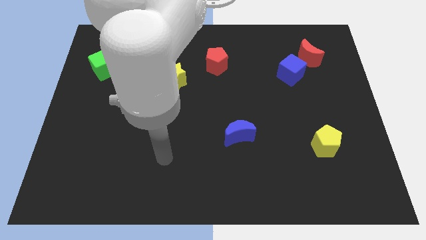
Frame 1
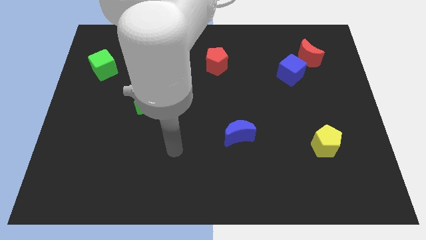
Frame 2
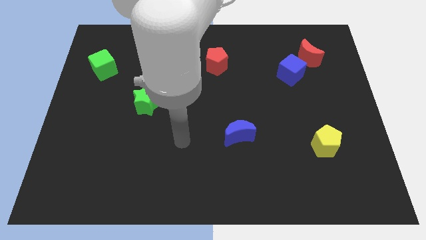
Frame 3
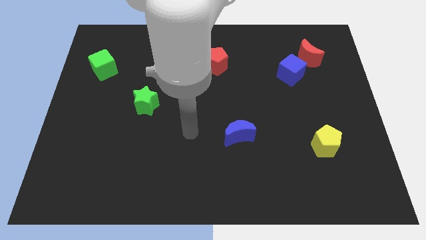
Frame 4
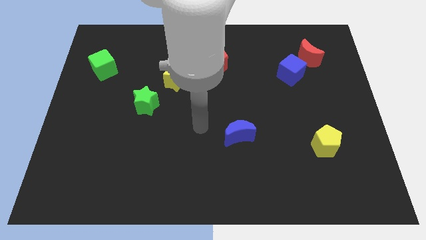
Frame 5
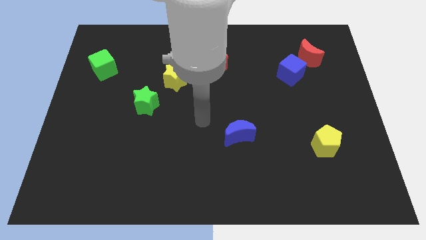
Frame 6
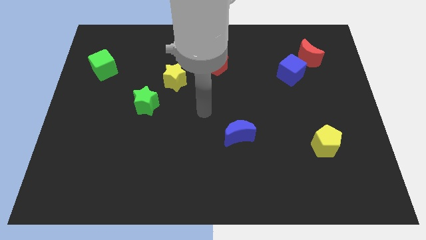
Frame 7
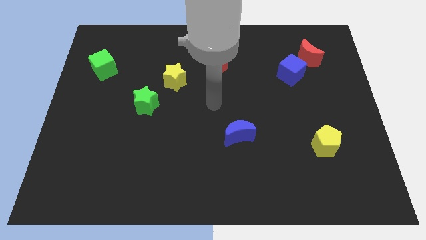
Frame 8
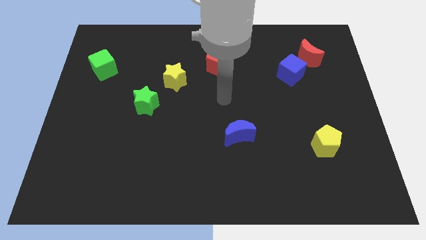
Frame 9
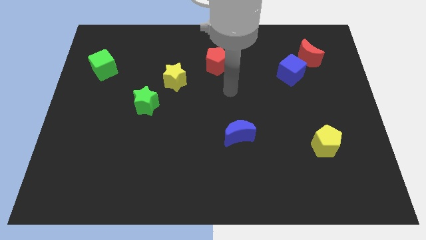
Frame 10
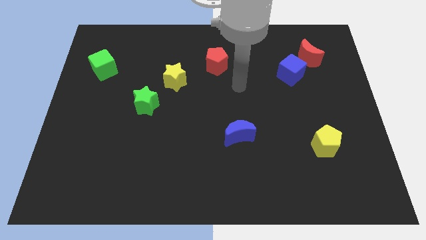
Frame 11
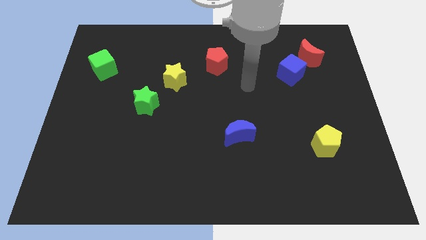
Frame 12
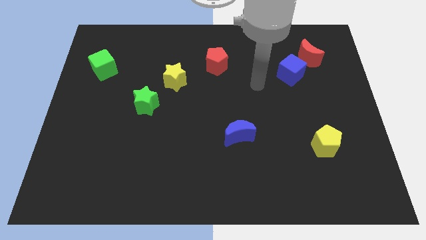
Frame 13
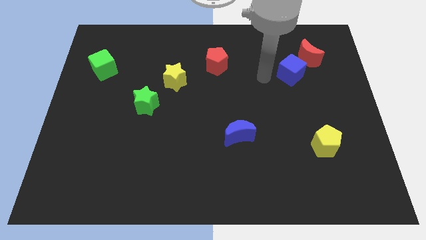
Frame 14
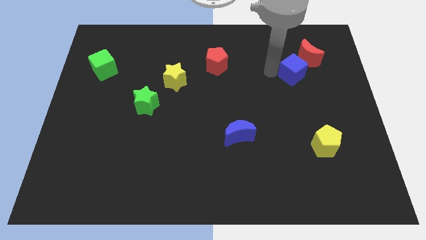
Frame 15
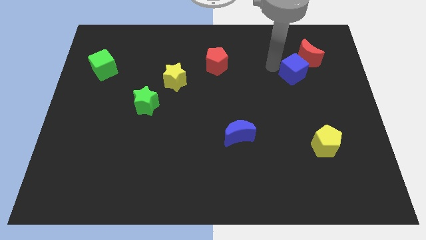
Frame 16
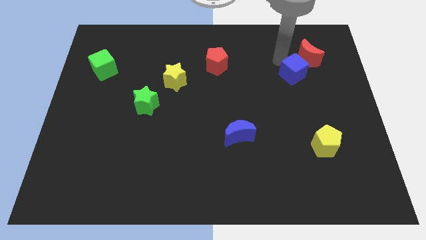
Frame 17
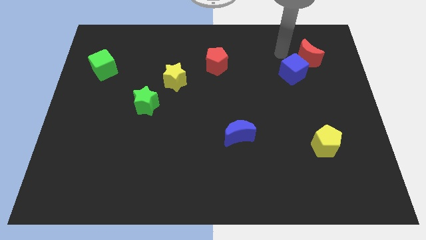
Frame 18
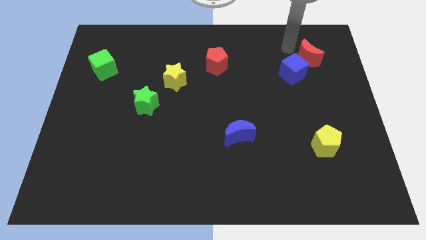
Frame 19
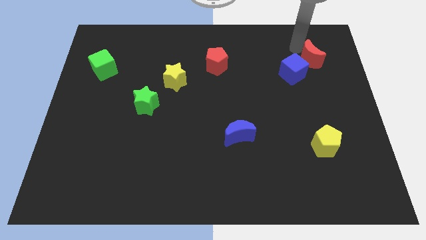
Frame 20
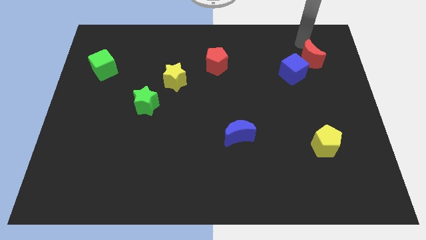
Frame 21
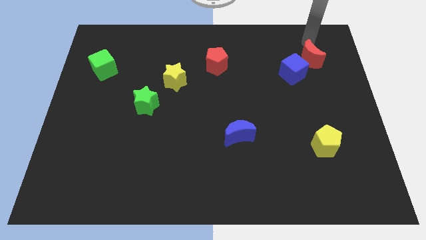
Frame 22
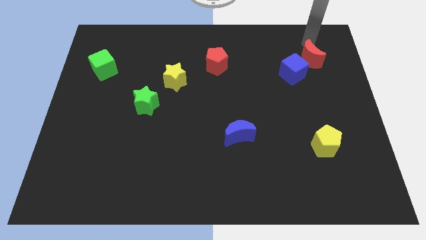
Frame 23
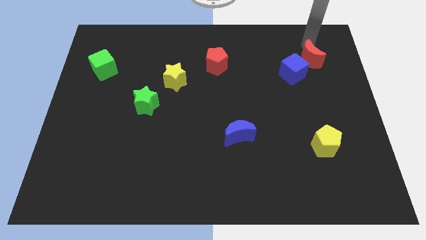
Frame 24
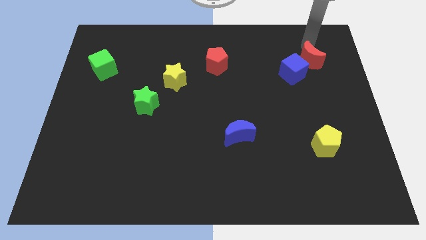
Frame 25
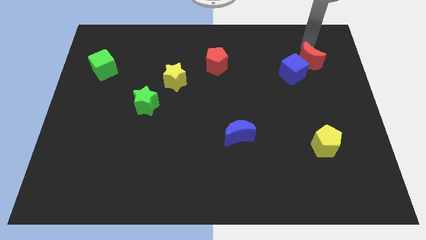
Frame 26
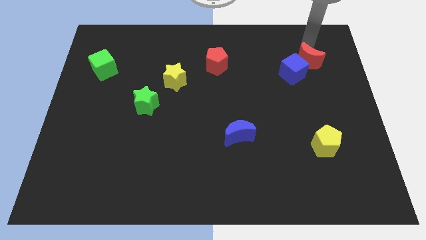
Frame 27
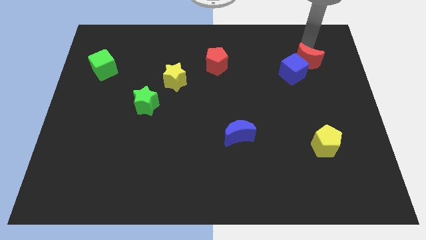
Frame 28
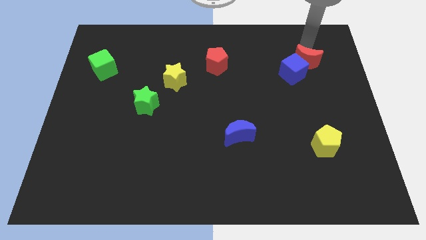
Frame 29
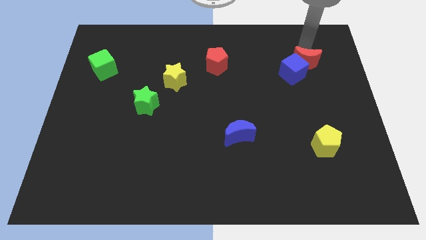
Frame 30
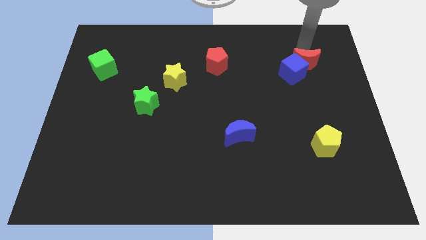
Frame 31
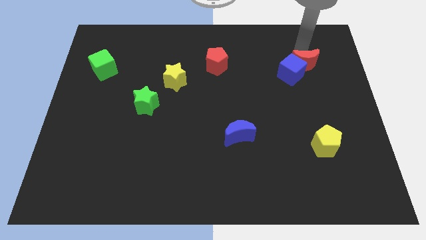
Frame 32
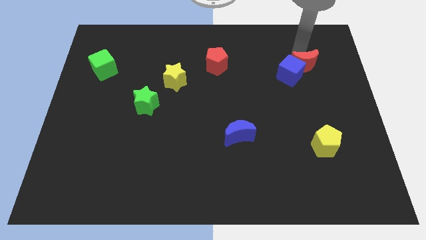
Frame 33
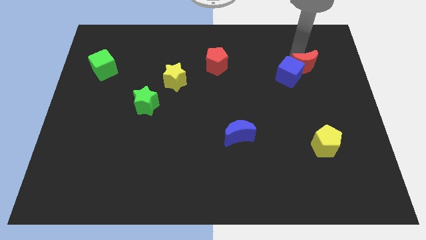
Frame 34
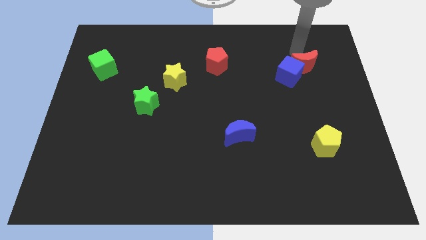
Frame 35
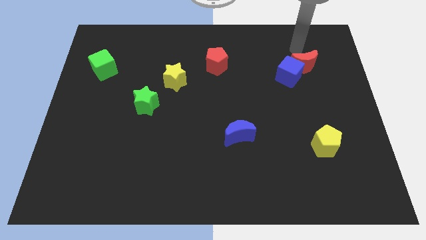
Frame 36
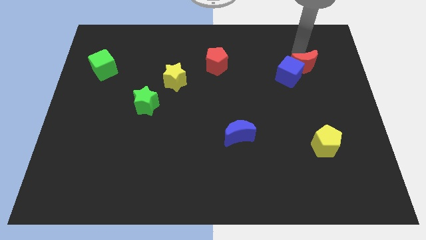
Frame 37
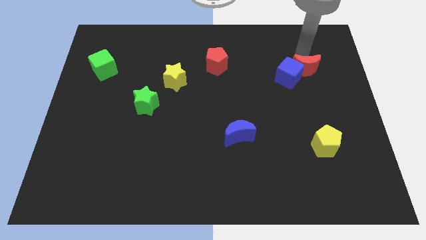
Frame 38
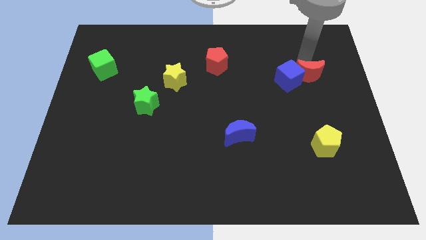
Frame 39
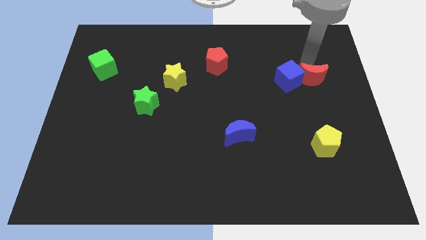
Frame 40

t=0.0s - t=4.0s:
slide the red moon down a little bit

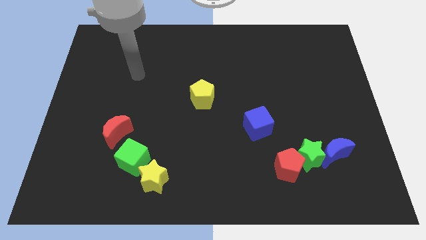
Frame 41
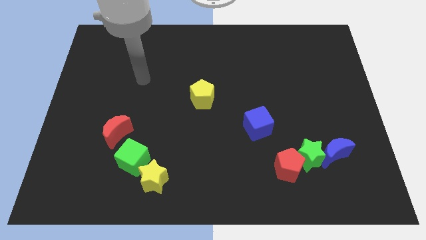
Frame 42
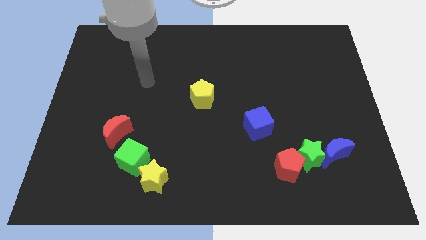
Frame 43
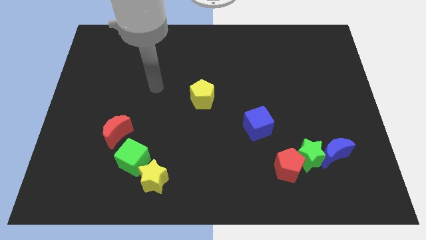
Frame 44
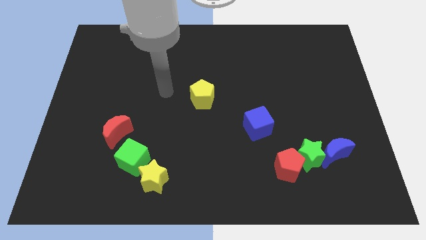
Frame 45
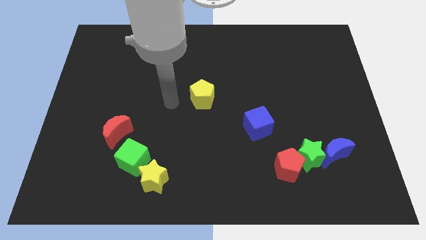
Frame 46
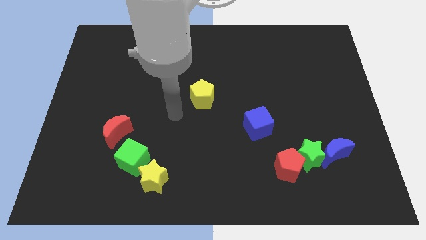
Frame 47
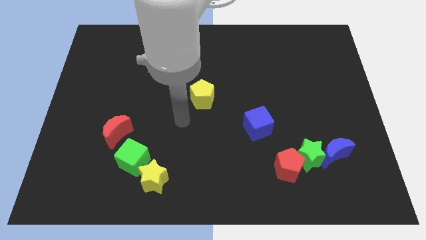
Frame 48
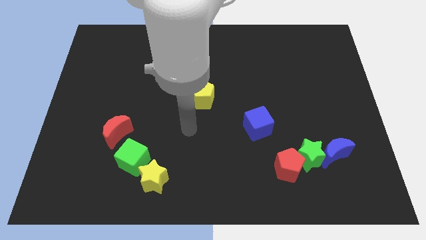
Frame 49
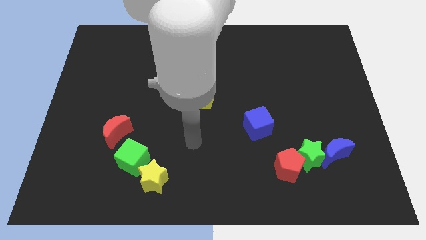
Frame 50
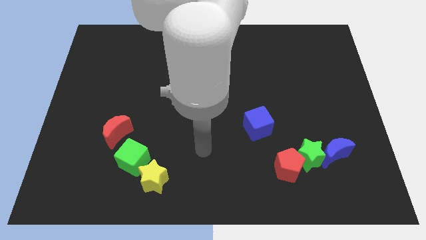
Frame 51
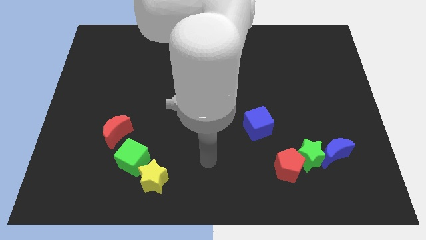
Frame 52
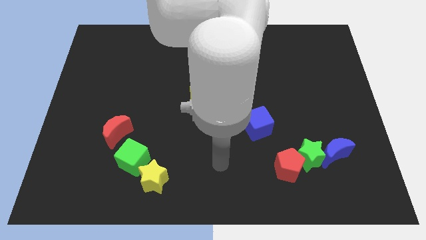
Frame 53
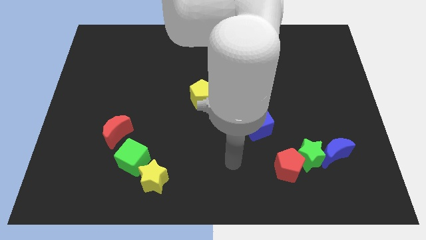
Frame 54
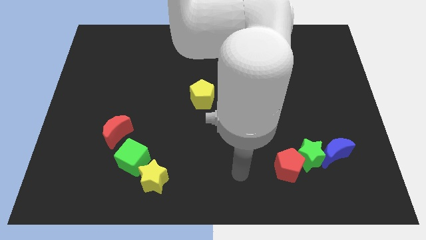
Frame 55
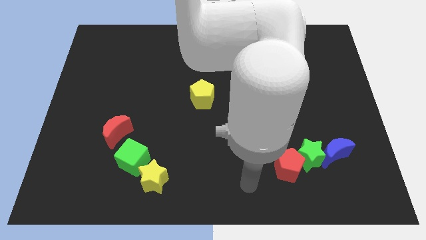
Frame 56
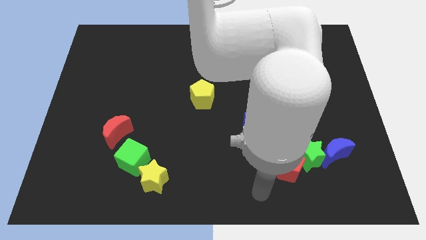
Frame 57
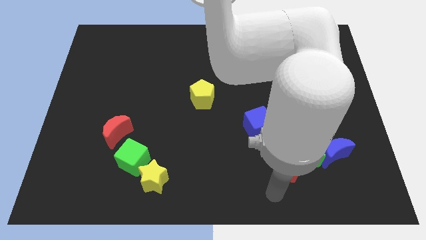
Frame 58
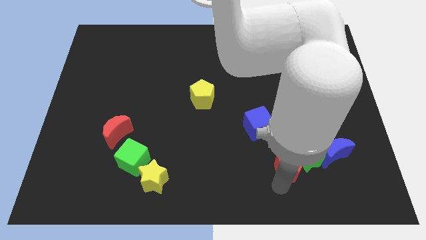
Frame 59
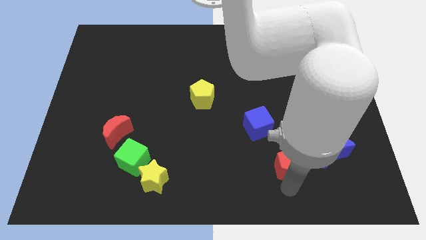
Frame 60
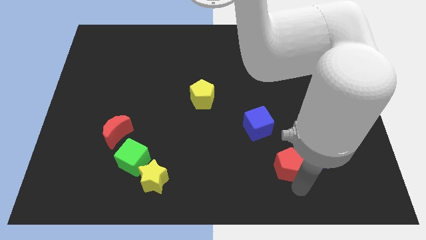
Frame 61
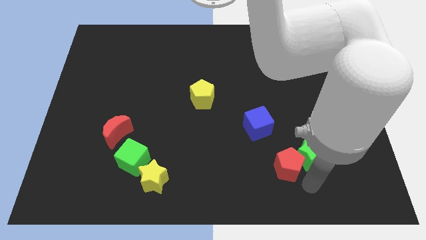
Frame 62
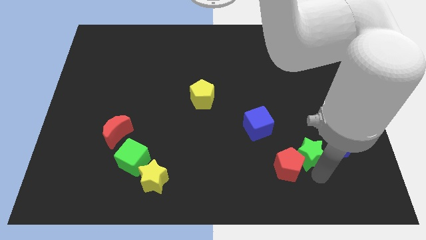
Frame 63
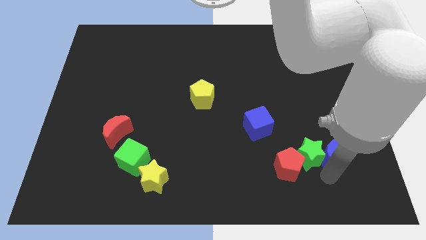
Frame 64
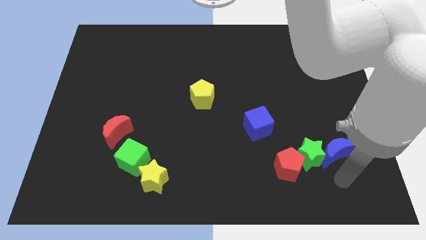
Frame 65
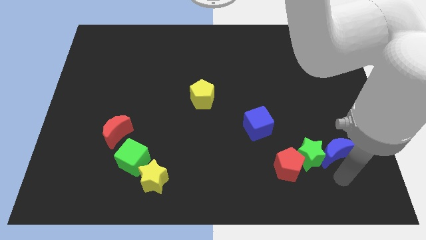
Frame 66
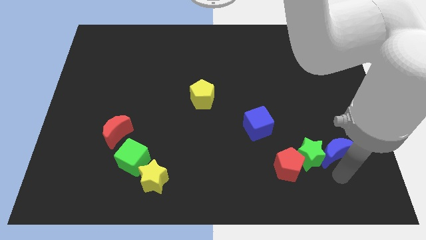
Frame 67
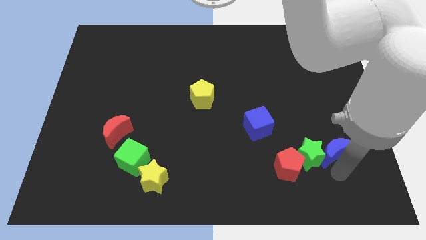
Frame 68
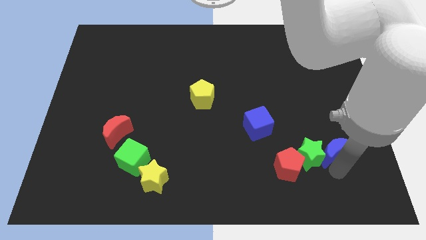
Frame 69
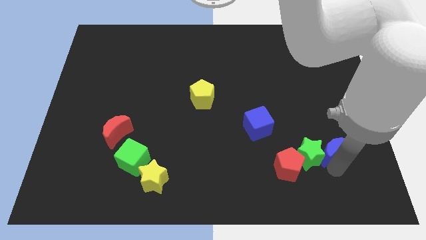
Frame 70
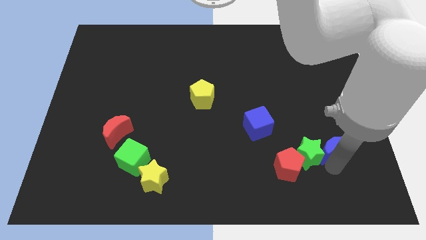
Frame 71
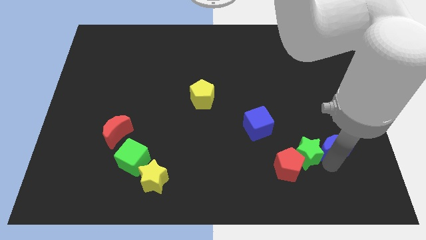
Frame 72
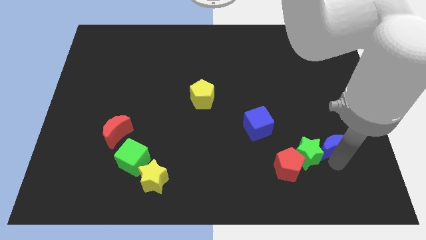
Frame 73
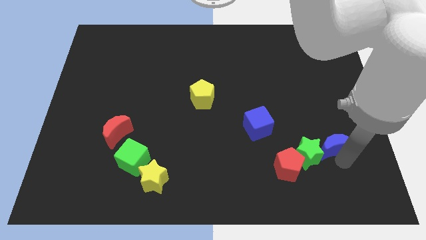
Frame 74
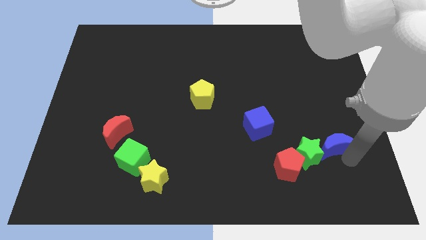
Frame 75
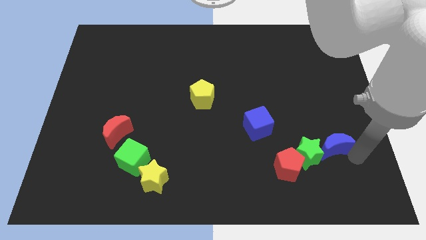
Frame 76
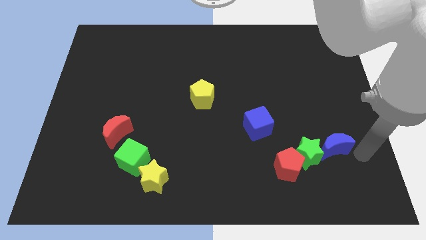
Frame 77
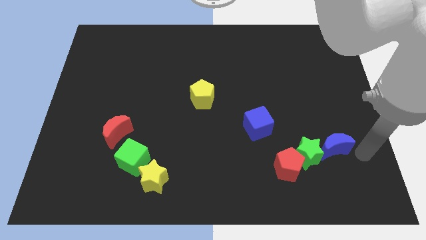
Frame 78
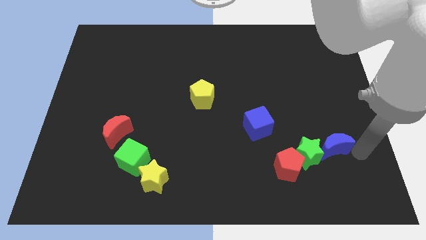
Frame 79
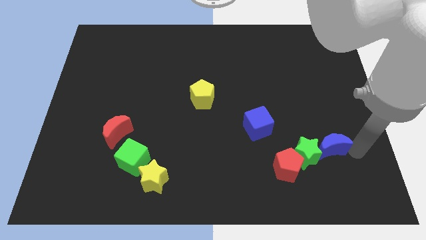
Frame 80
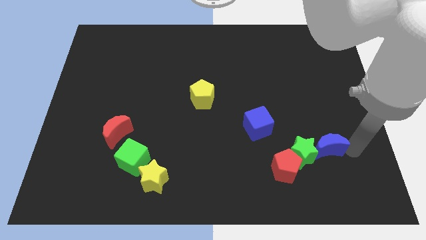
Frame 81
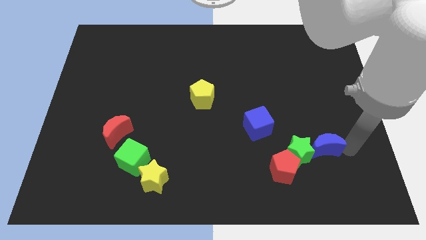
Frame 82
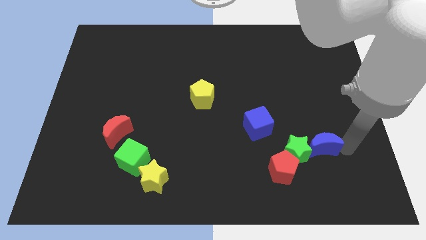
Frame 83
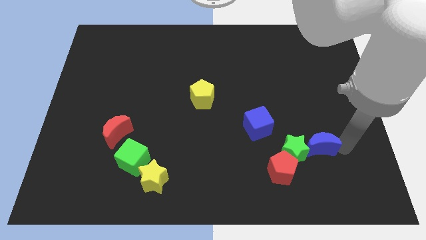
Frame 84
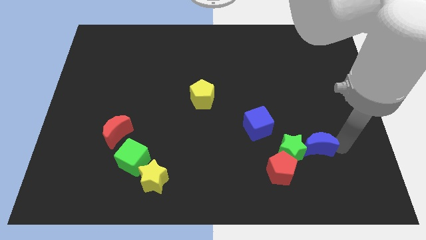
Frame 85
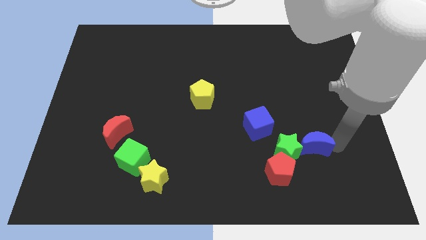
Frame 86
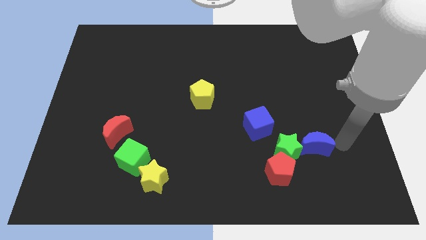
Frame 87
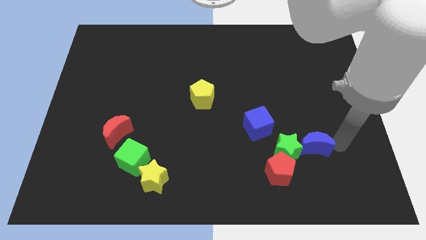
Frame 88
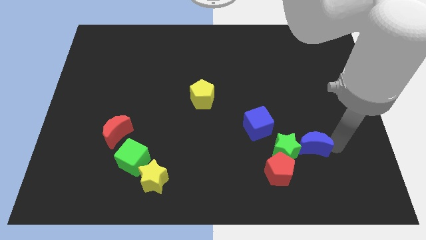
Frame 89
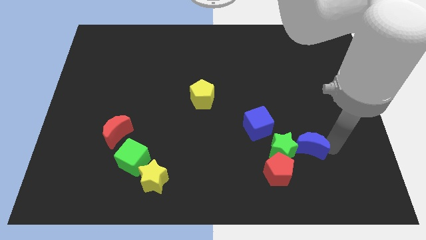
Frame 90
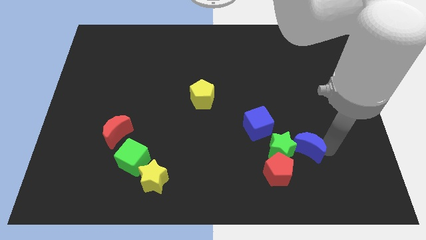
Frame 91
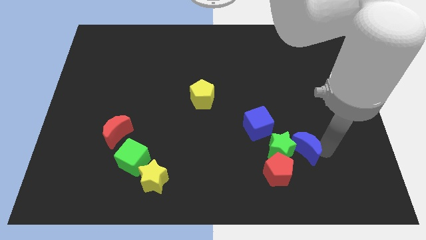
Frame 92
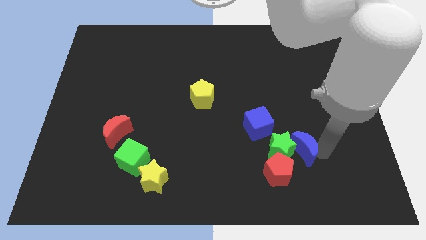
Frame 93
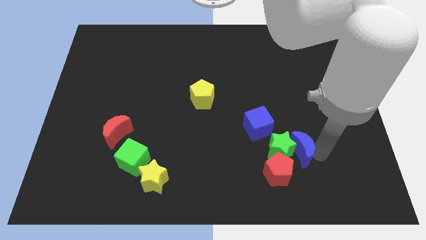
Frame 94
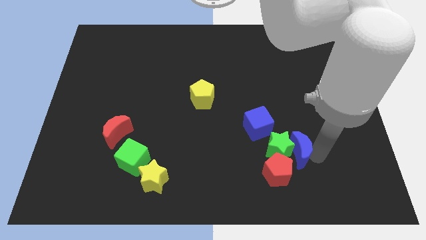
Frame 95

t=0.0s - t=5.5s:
move the blue moon slightly left
